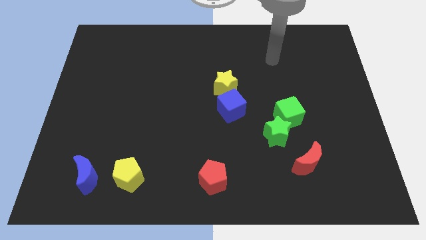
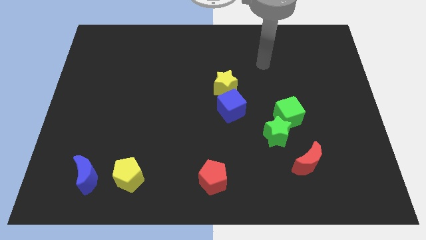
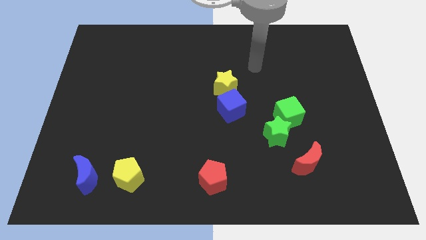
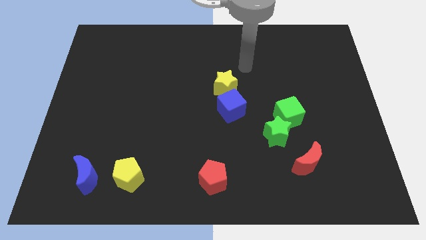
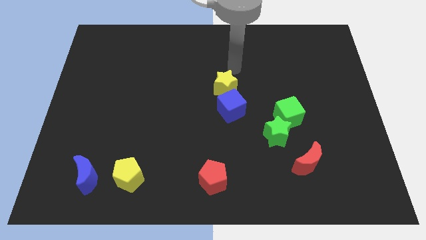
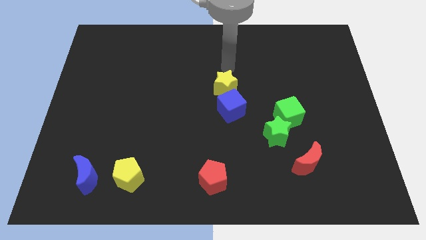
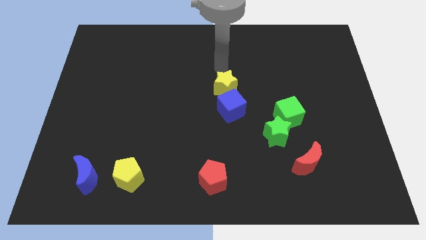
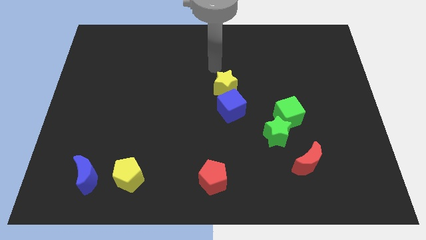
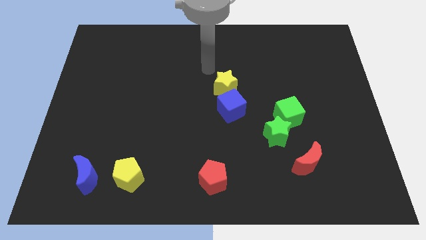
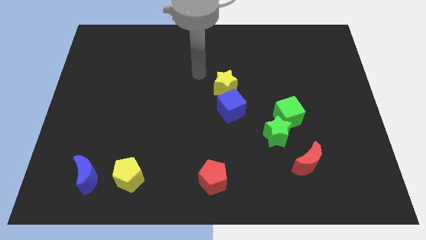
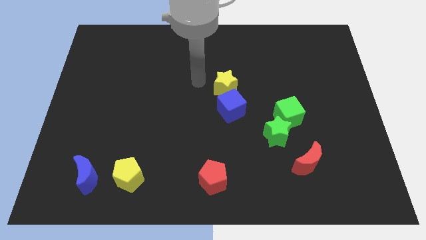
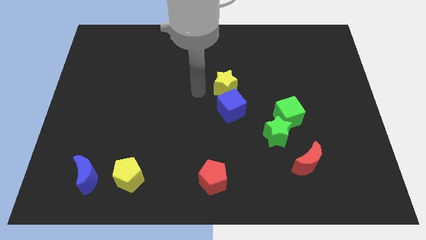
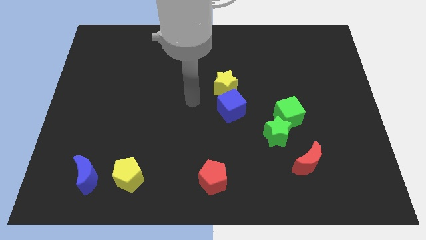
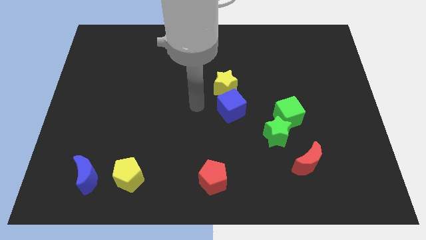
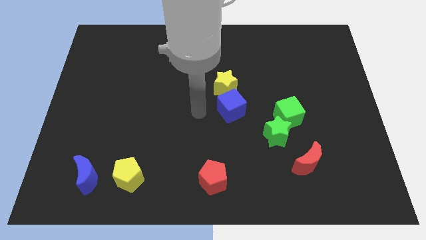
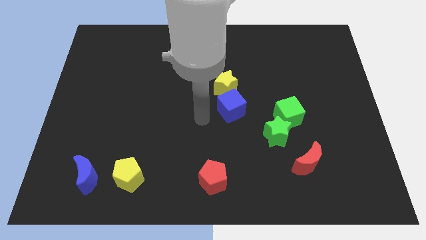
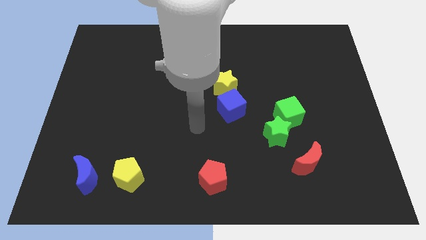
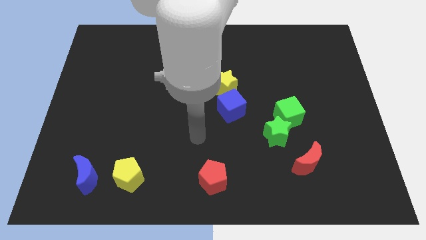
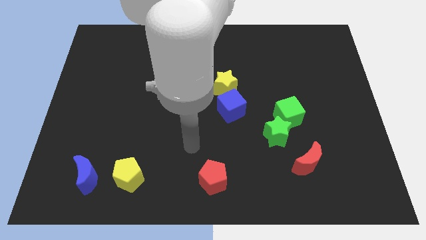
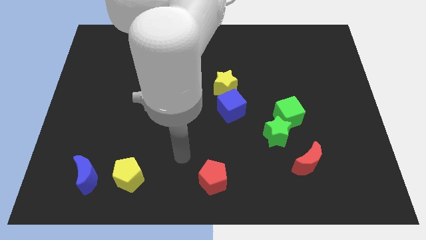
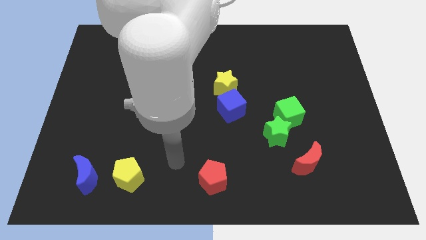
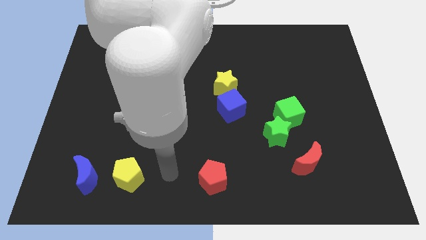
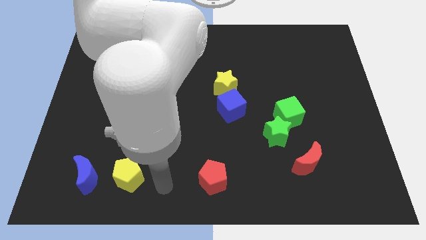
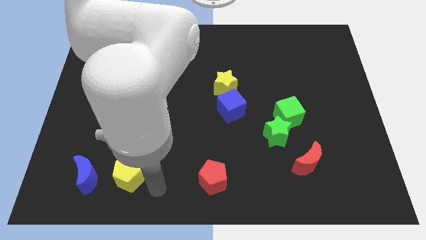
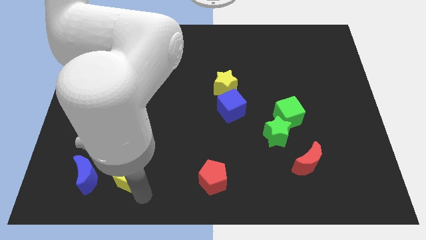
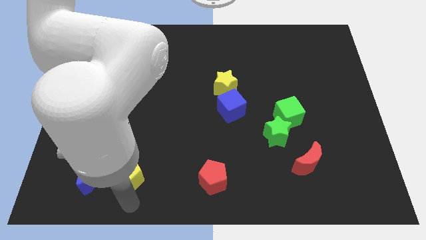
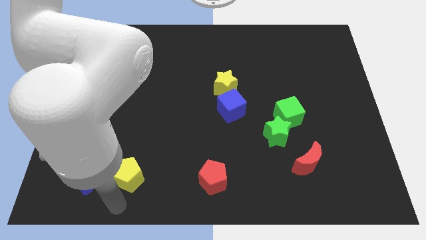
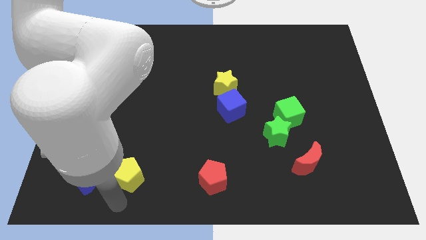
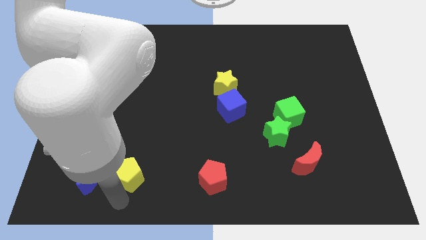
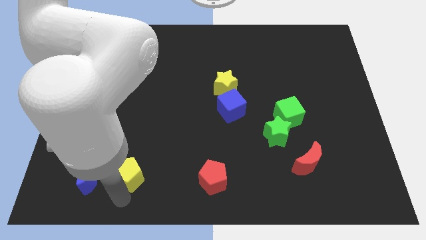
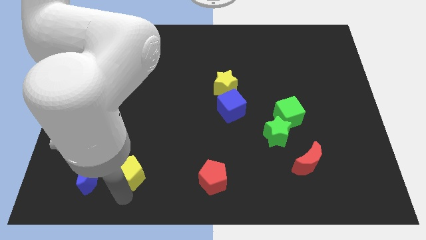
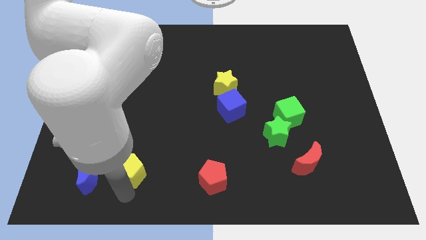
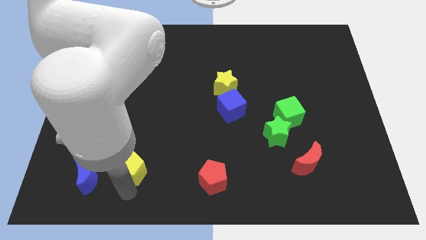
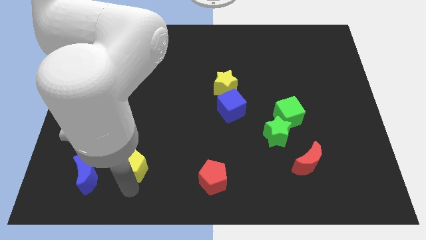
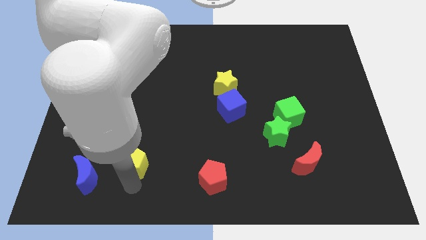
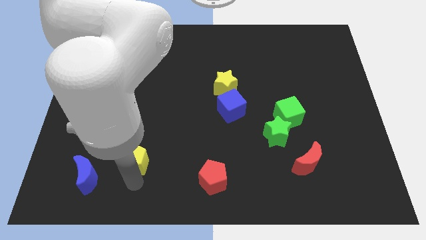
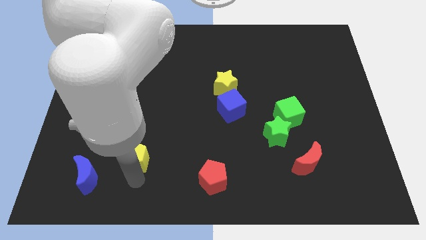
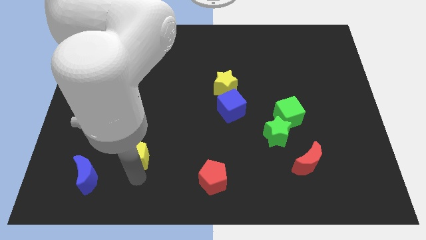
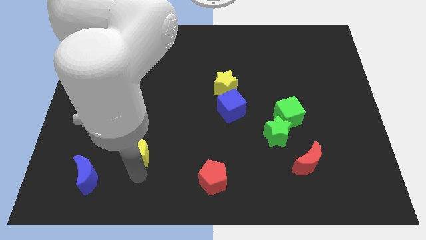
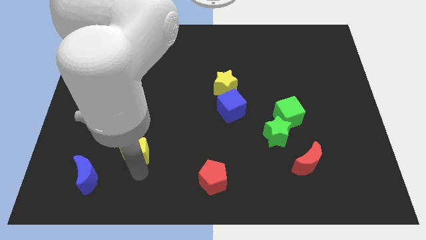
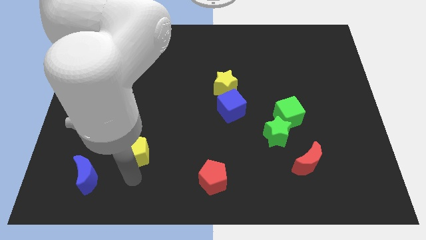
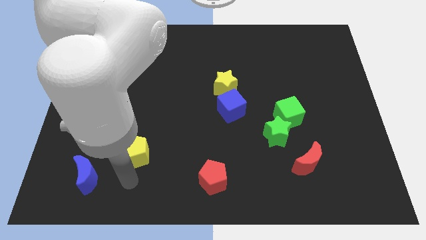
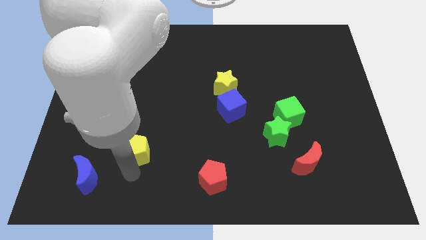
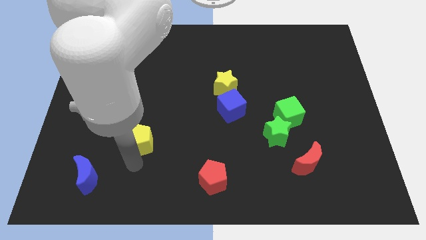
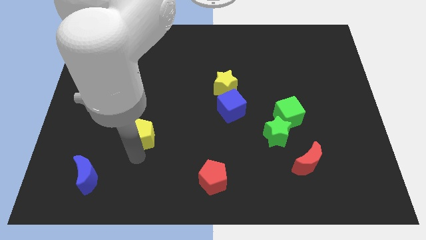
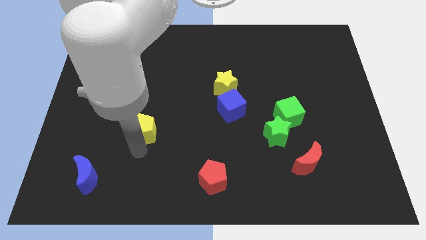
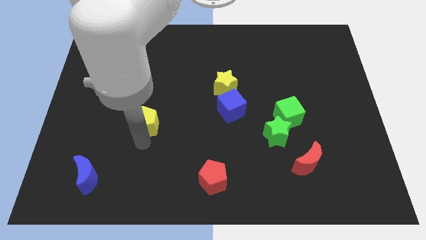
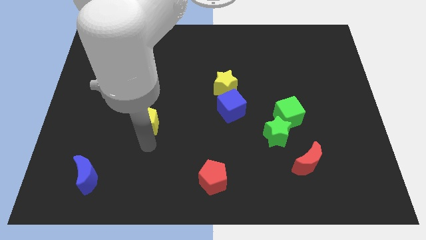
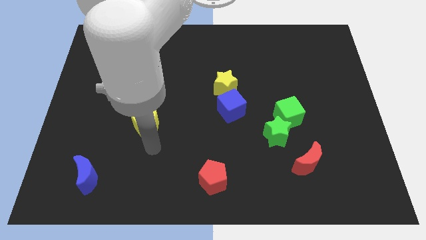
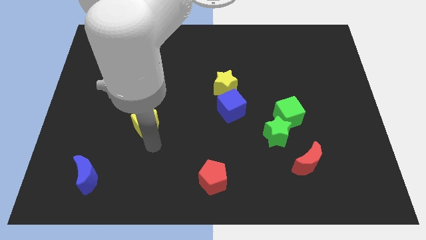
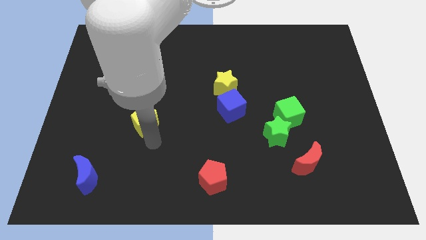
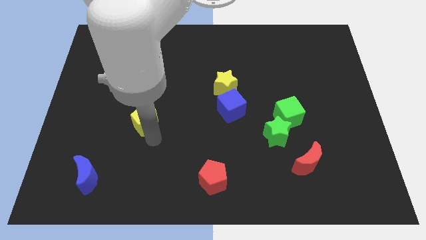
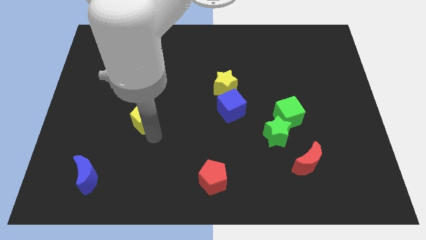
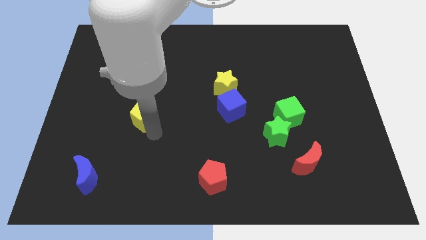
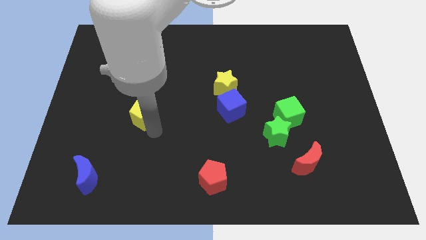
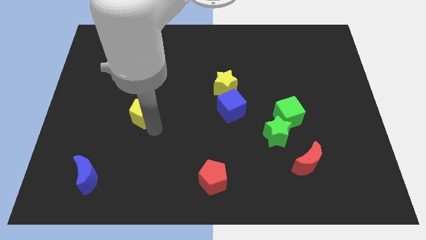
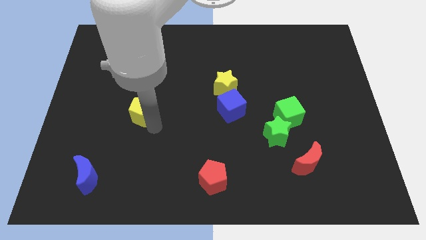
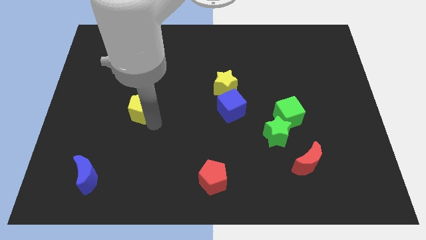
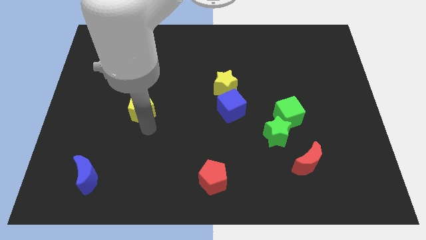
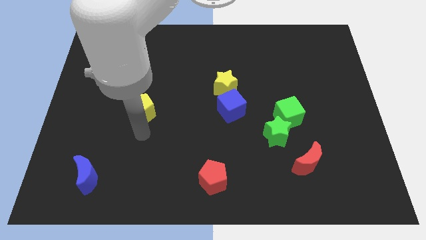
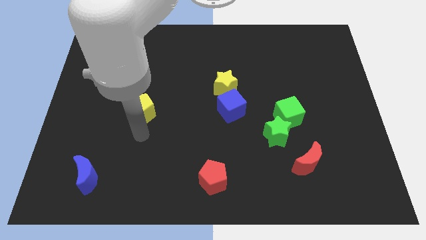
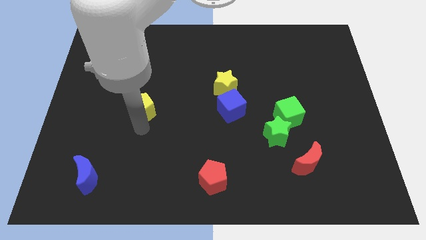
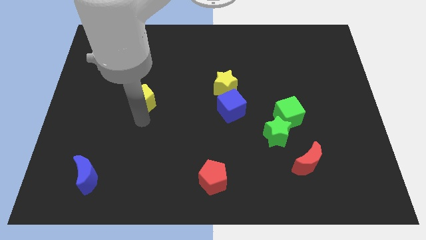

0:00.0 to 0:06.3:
push the yellow pentagon upwards

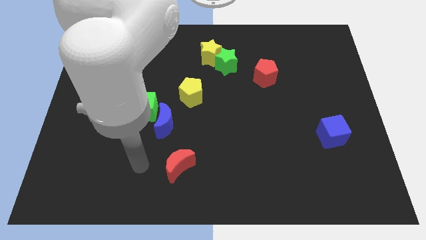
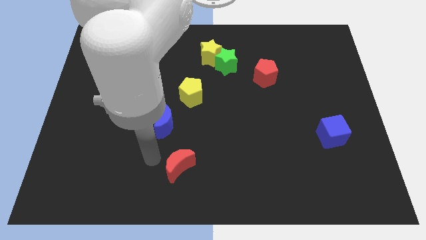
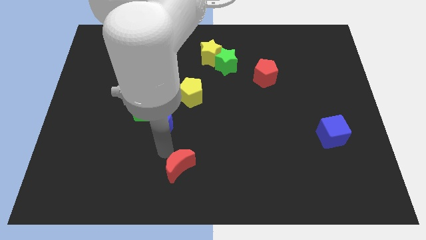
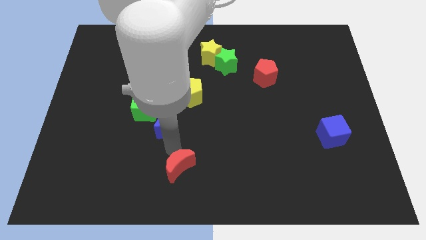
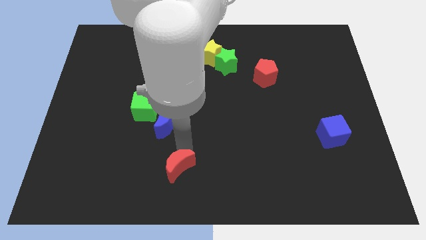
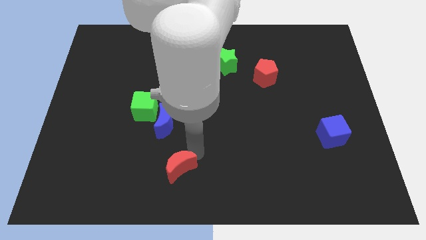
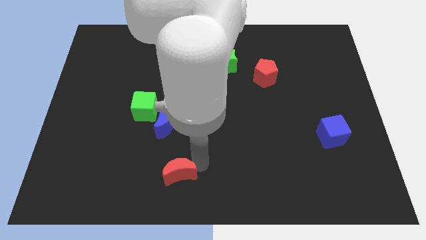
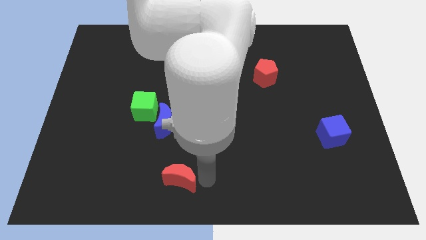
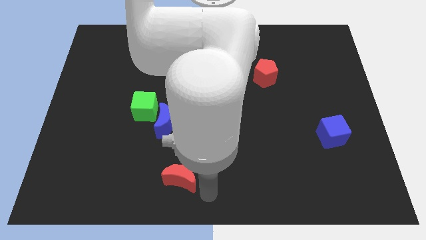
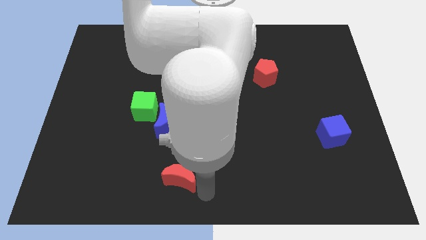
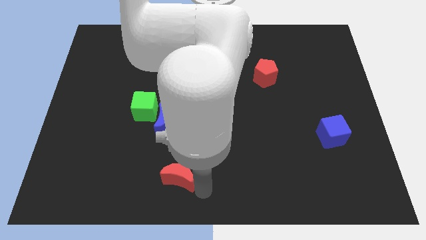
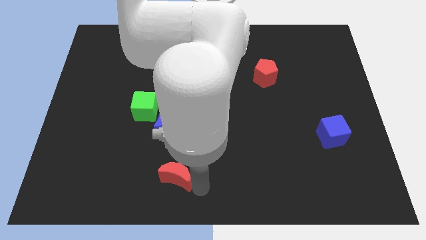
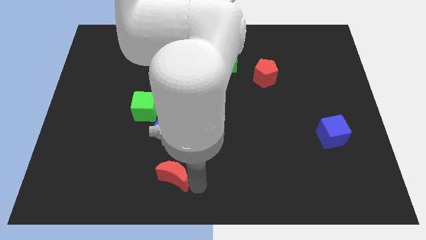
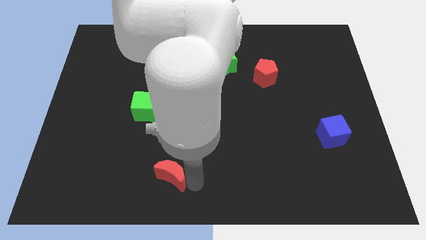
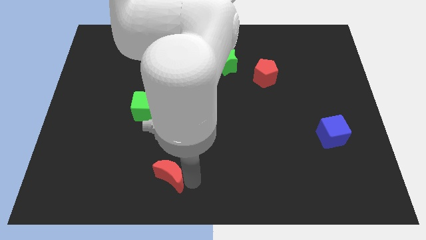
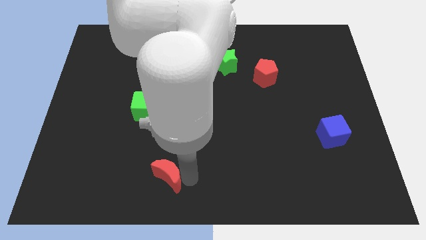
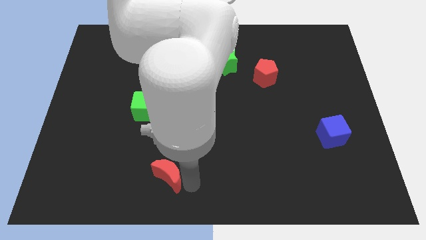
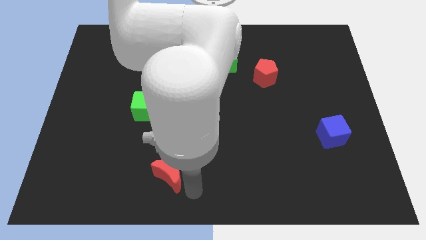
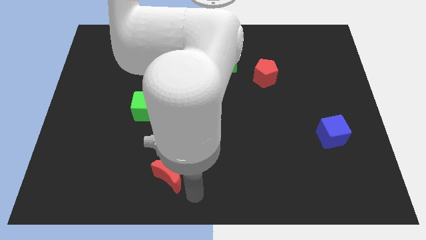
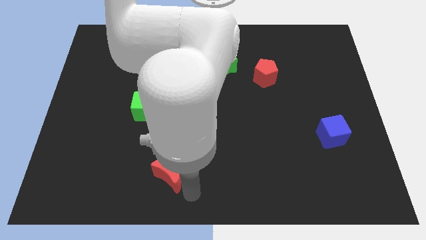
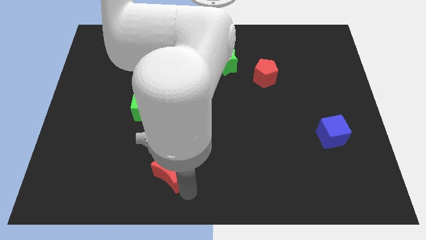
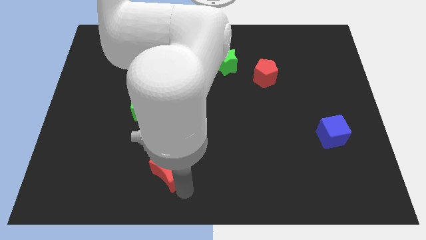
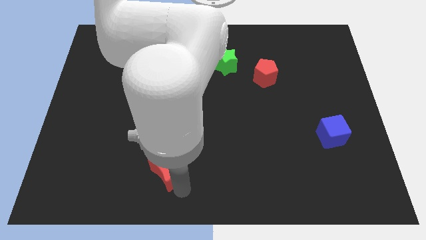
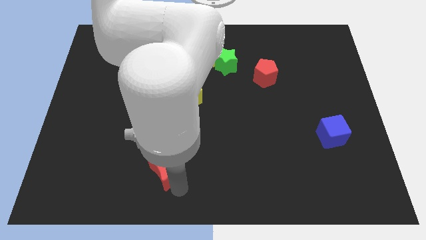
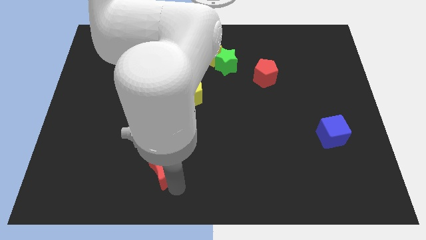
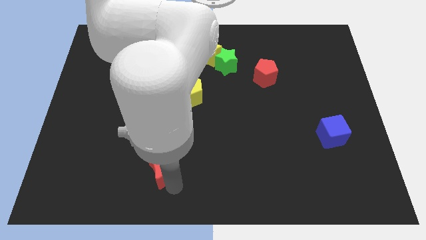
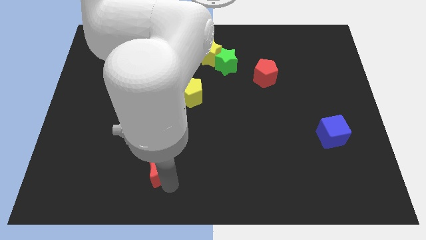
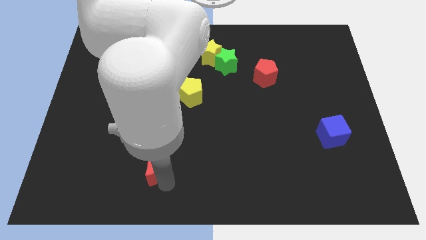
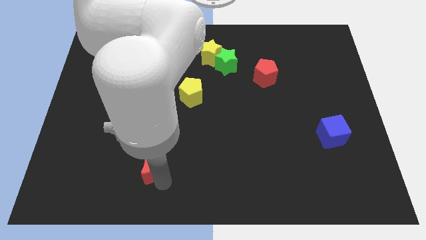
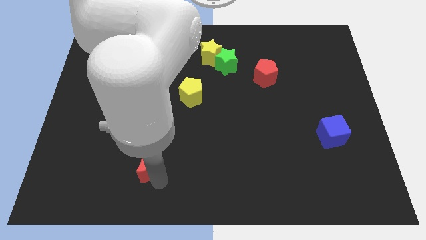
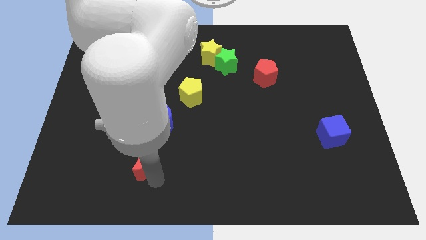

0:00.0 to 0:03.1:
slide the red moon slightly to the left
